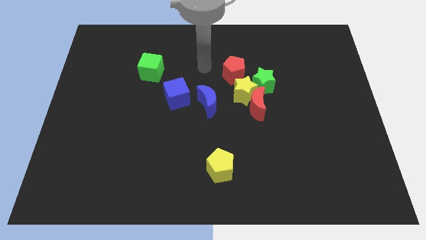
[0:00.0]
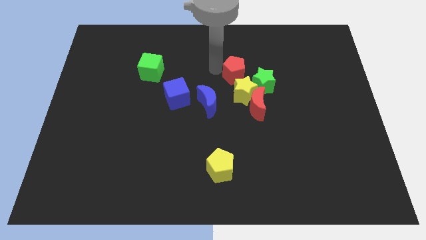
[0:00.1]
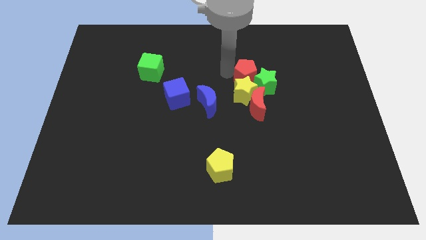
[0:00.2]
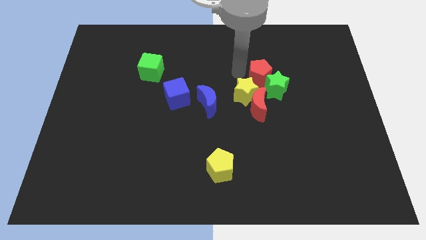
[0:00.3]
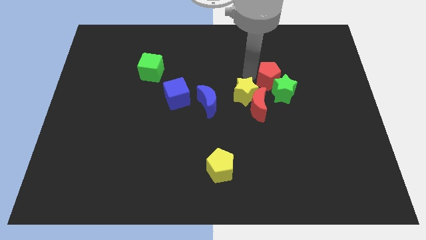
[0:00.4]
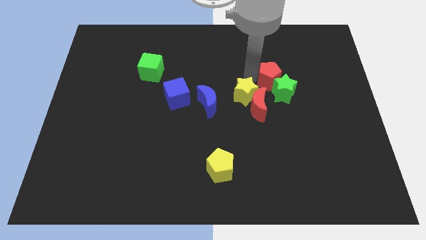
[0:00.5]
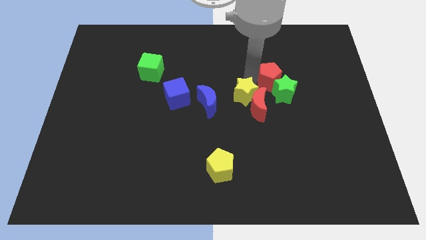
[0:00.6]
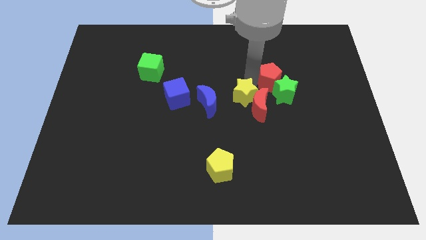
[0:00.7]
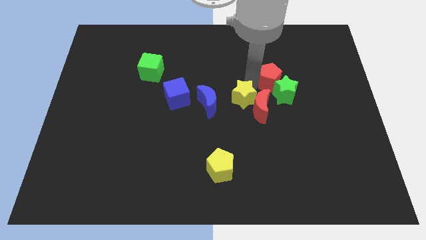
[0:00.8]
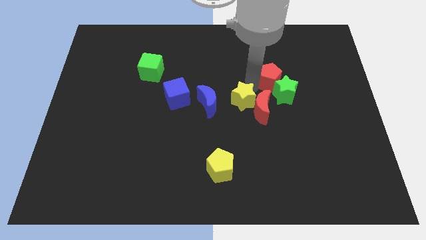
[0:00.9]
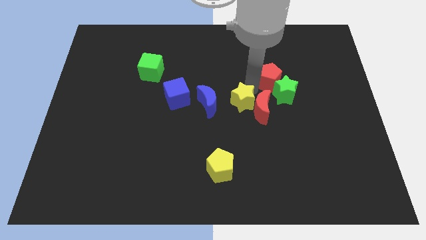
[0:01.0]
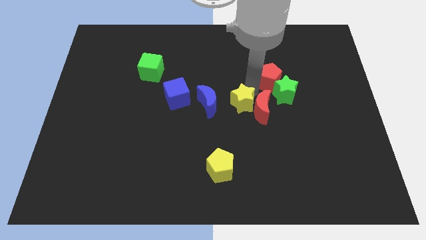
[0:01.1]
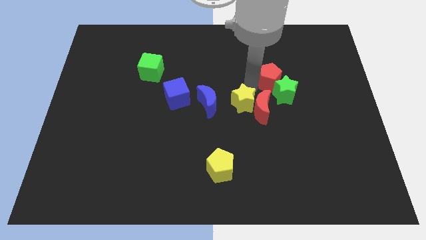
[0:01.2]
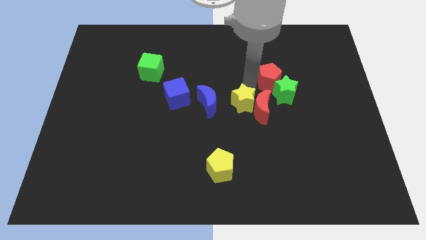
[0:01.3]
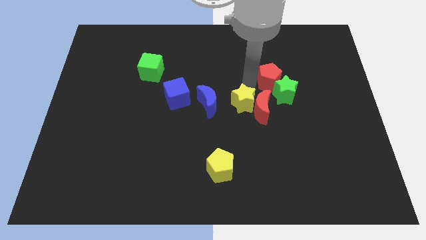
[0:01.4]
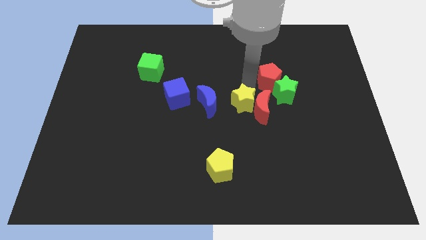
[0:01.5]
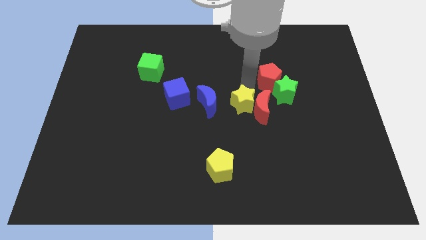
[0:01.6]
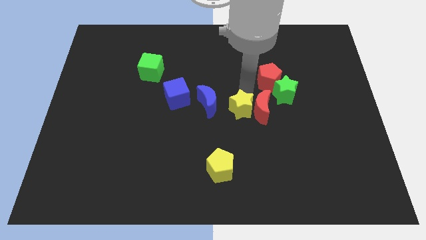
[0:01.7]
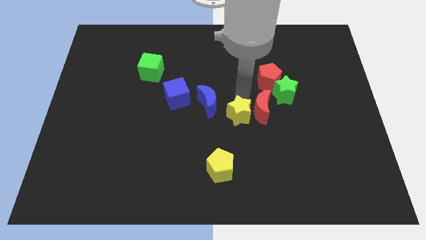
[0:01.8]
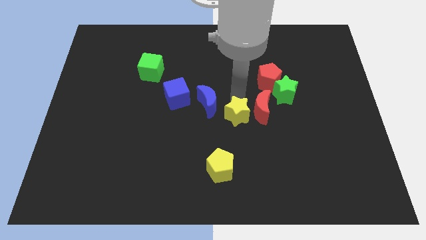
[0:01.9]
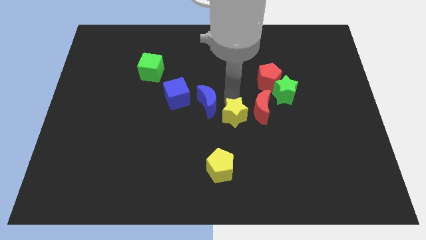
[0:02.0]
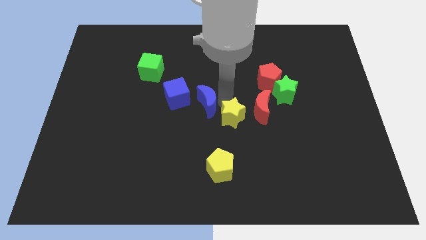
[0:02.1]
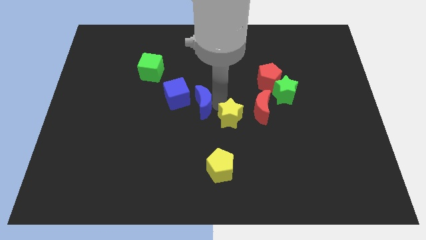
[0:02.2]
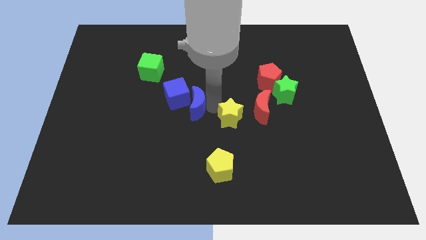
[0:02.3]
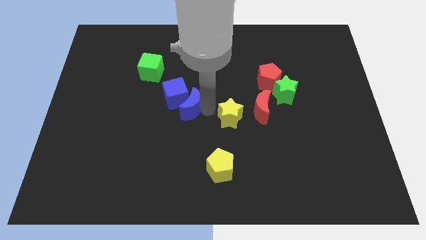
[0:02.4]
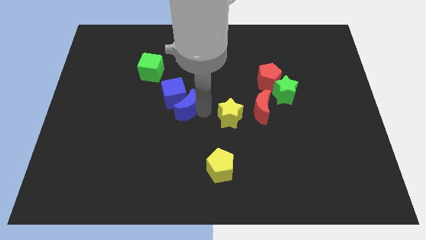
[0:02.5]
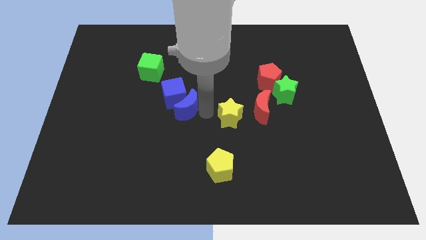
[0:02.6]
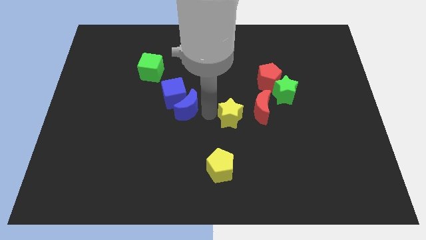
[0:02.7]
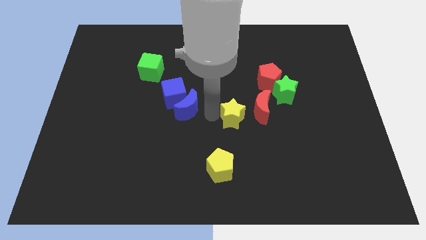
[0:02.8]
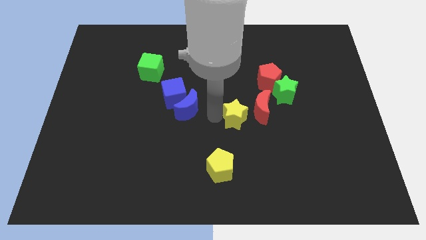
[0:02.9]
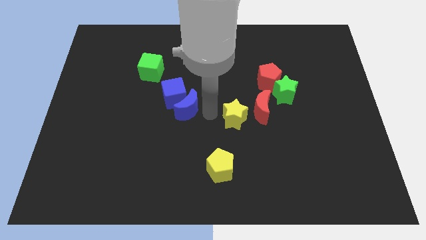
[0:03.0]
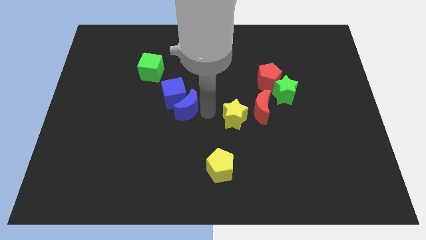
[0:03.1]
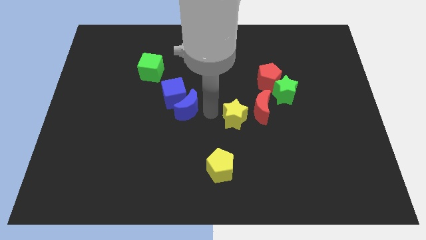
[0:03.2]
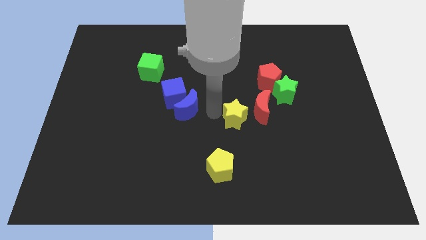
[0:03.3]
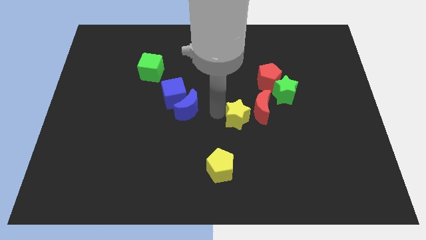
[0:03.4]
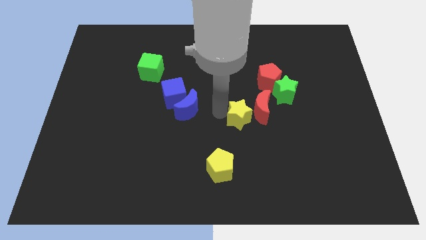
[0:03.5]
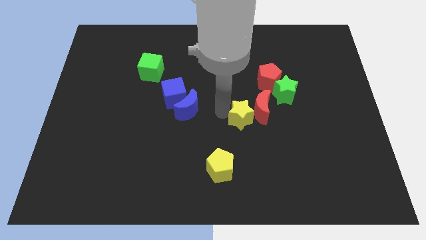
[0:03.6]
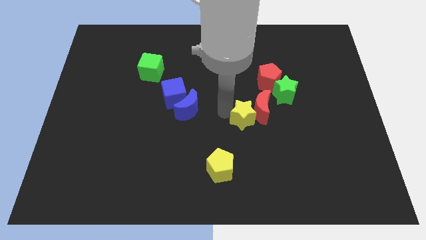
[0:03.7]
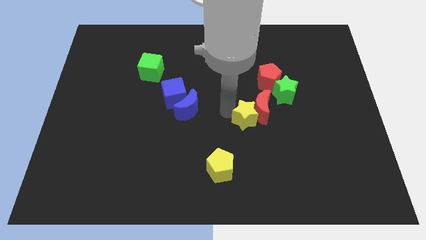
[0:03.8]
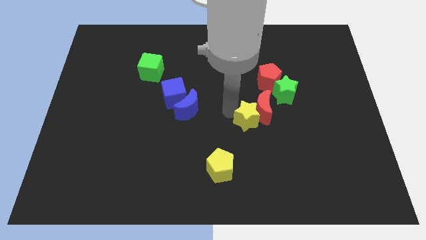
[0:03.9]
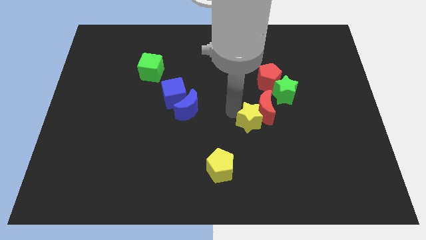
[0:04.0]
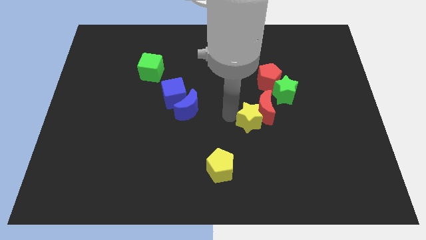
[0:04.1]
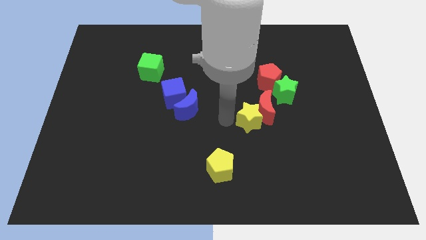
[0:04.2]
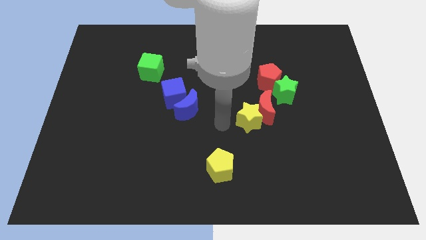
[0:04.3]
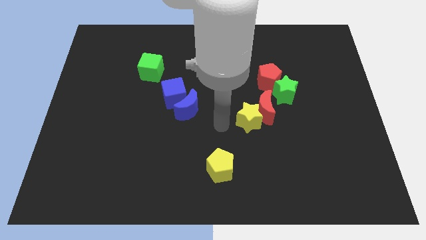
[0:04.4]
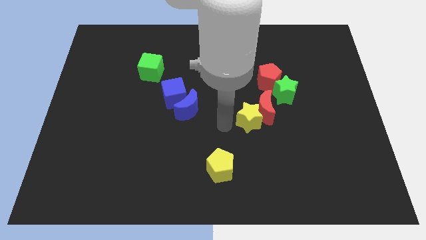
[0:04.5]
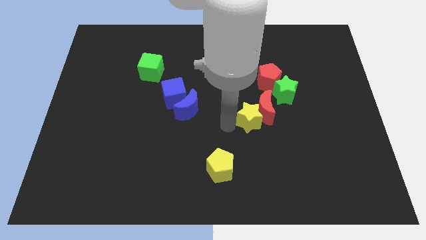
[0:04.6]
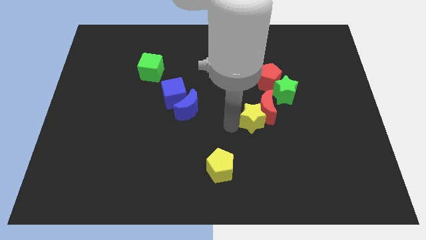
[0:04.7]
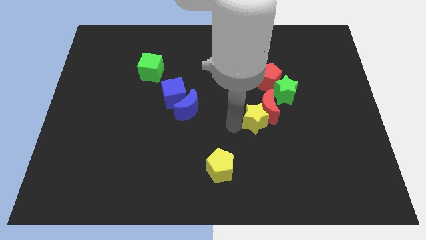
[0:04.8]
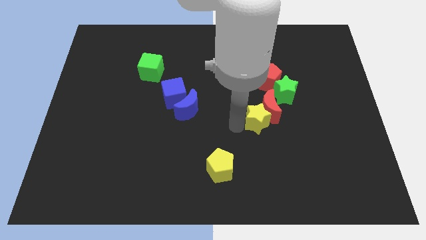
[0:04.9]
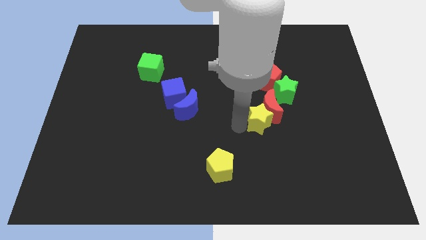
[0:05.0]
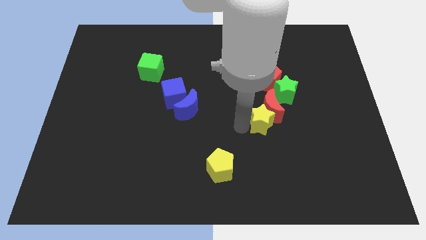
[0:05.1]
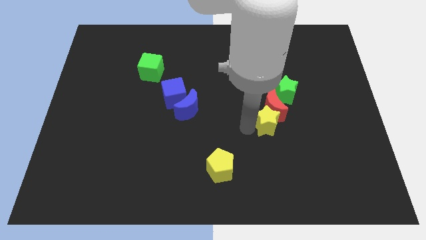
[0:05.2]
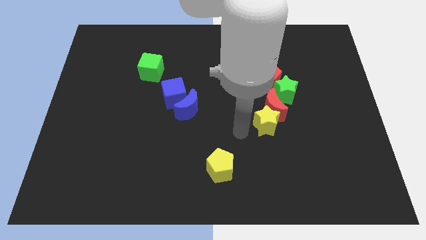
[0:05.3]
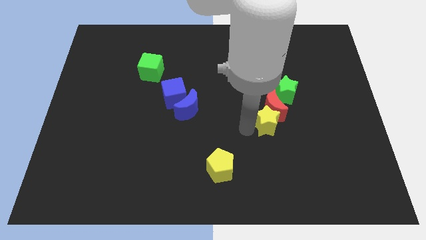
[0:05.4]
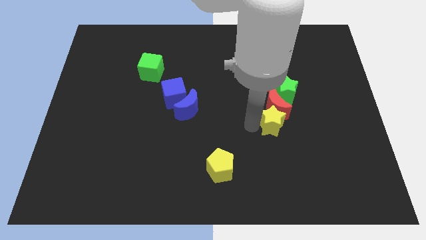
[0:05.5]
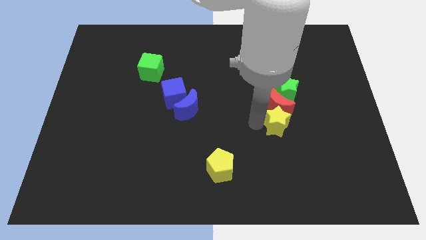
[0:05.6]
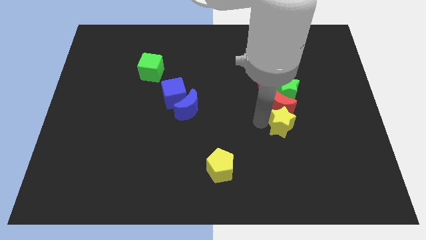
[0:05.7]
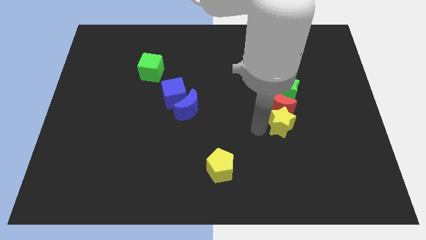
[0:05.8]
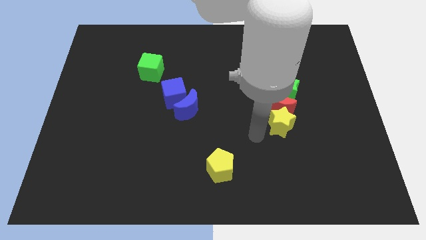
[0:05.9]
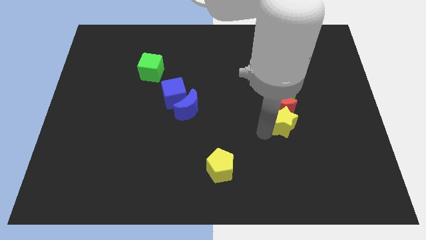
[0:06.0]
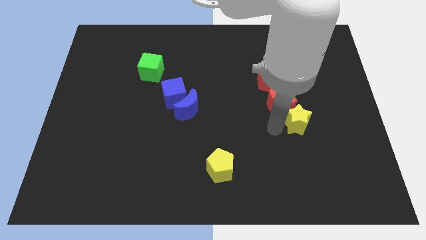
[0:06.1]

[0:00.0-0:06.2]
push the yellow star to the right side of the red moon

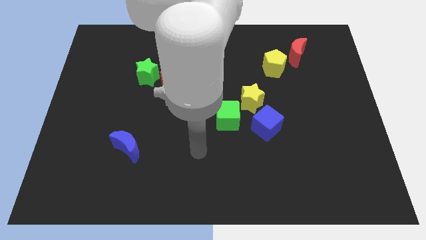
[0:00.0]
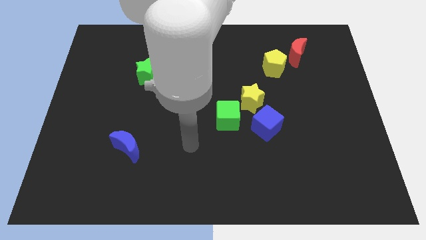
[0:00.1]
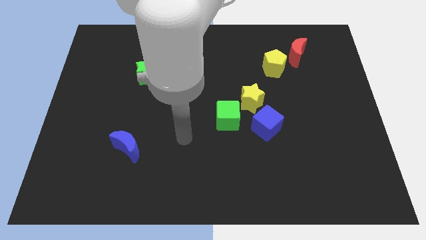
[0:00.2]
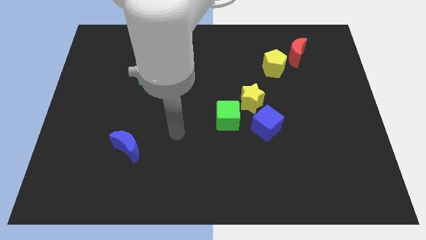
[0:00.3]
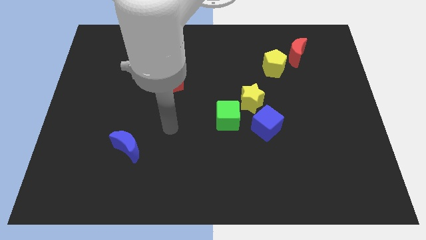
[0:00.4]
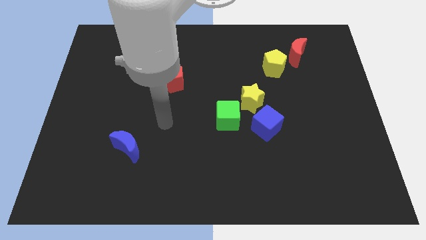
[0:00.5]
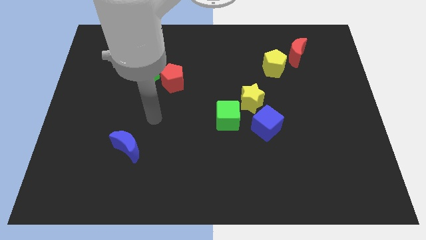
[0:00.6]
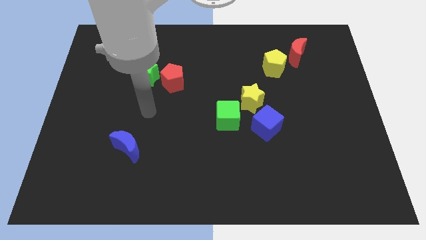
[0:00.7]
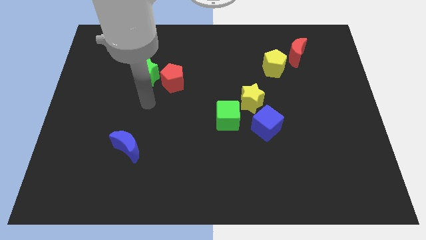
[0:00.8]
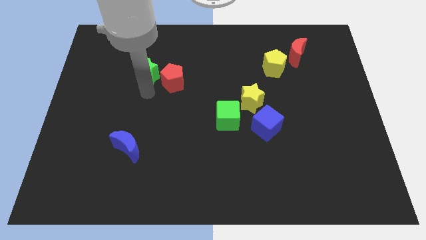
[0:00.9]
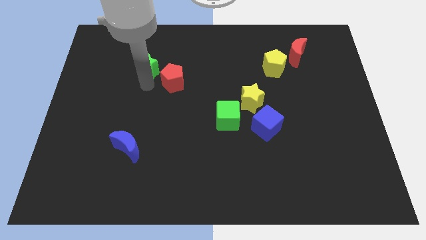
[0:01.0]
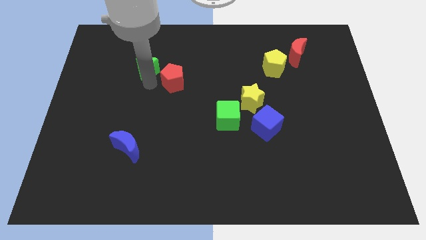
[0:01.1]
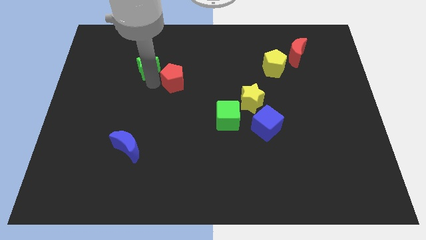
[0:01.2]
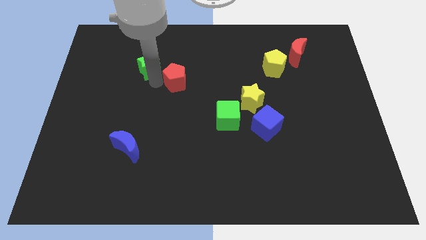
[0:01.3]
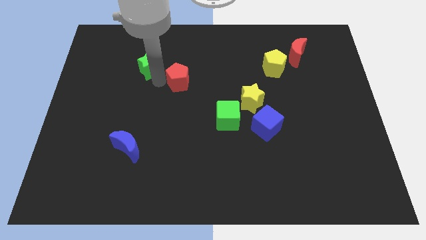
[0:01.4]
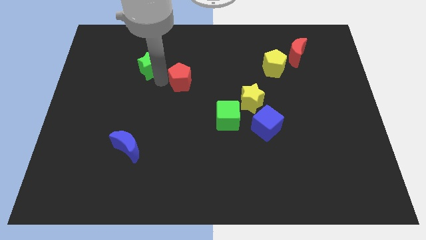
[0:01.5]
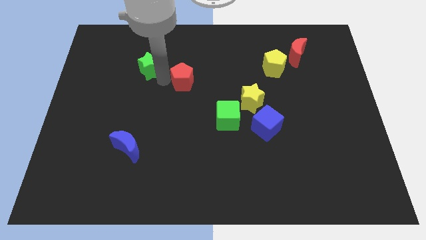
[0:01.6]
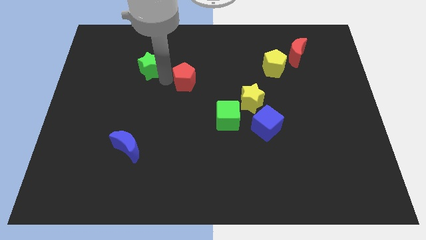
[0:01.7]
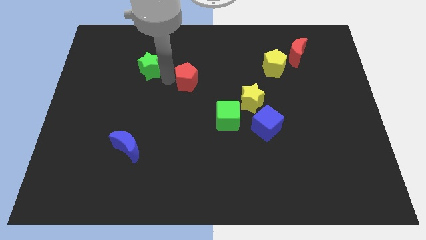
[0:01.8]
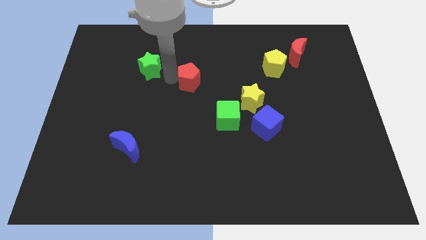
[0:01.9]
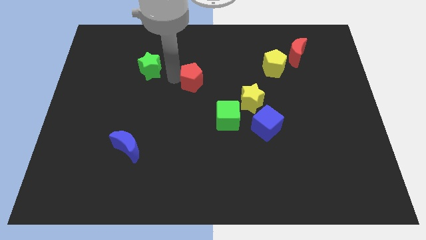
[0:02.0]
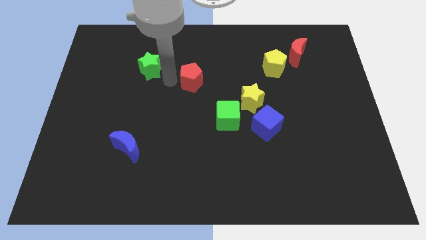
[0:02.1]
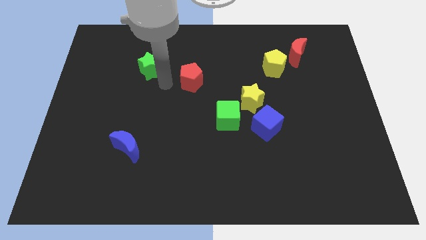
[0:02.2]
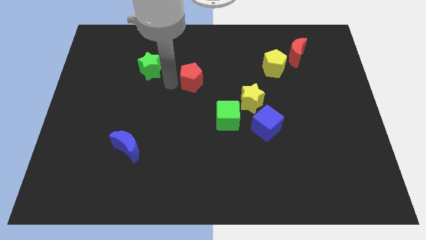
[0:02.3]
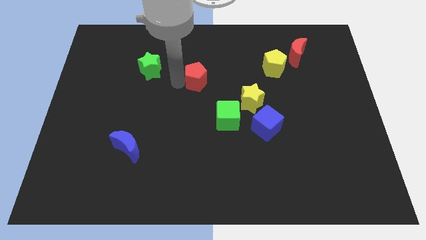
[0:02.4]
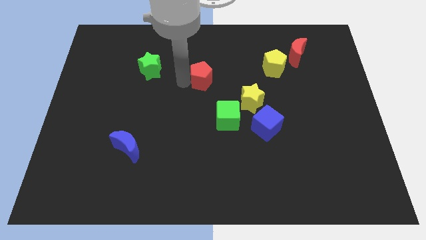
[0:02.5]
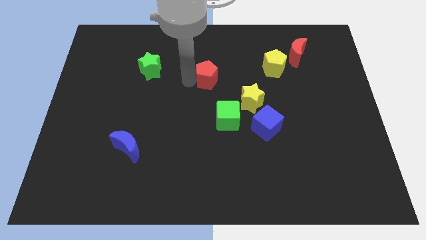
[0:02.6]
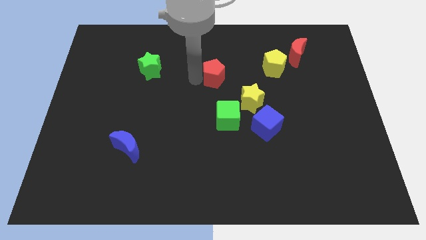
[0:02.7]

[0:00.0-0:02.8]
move the red pentagon diagonally up and to the left of the yellow star
